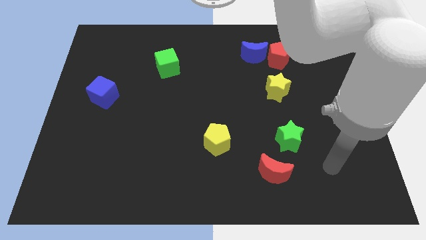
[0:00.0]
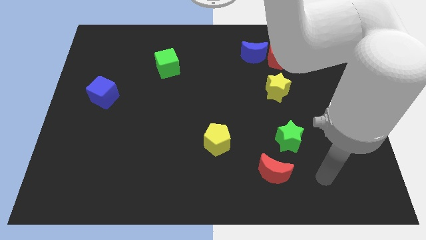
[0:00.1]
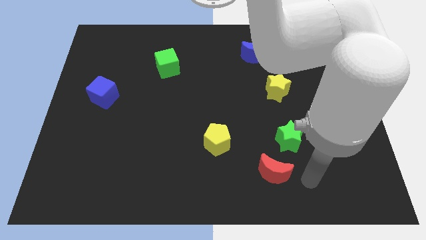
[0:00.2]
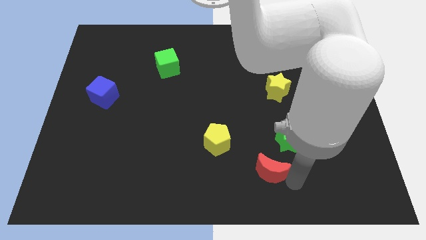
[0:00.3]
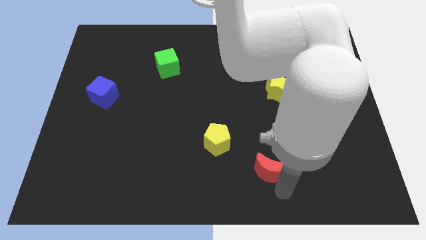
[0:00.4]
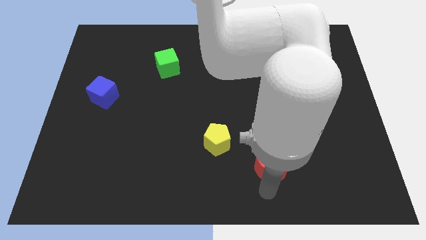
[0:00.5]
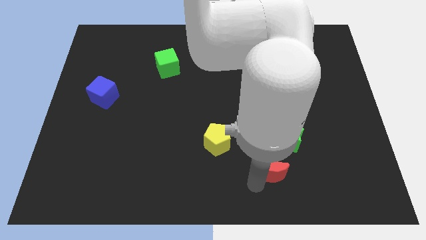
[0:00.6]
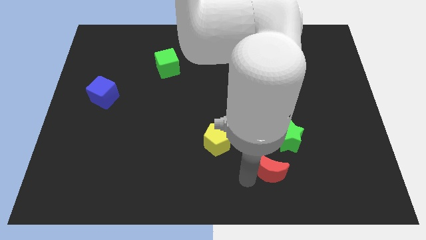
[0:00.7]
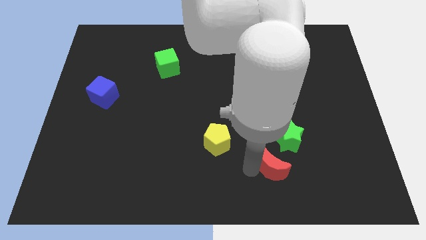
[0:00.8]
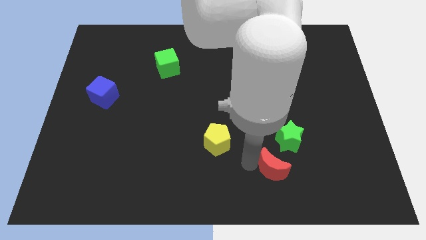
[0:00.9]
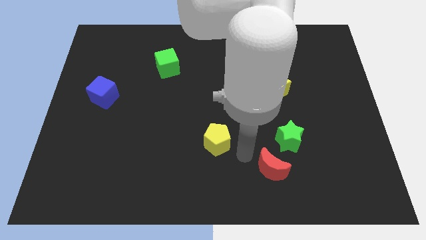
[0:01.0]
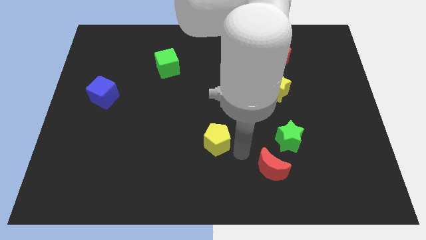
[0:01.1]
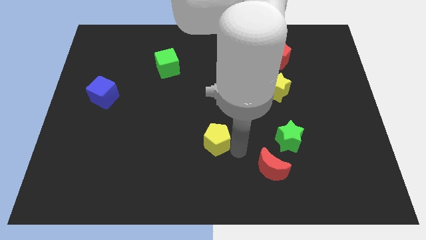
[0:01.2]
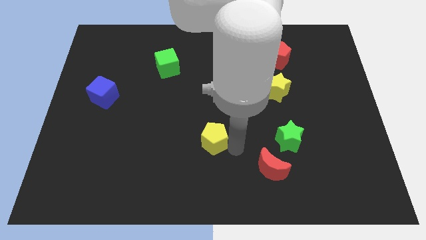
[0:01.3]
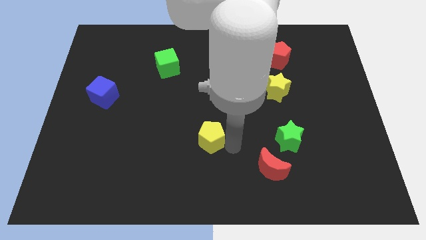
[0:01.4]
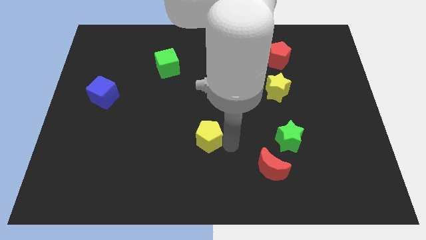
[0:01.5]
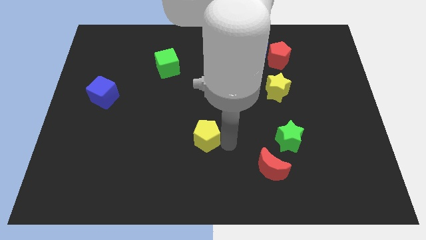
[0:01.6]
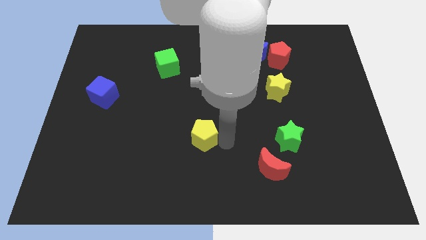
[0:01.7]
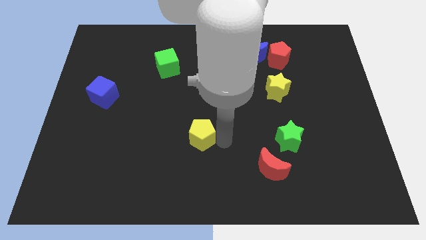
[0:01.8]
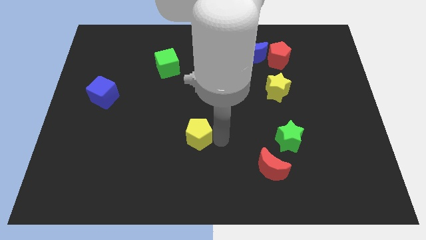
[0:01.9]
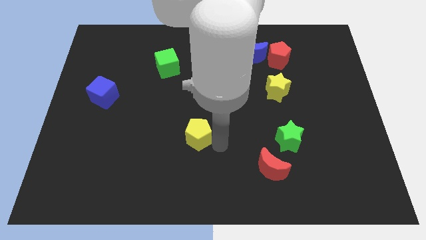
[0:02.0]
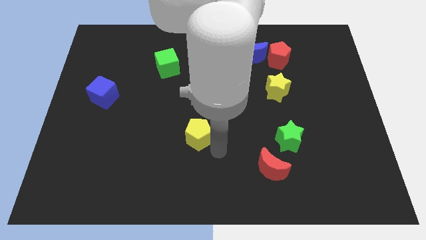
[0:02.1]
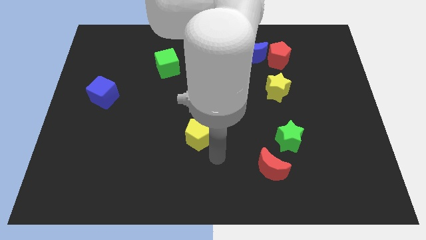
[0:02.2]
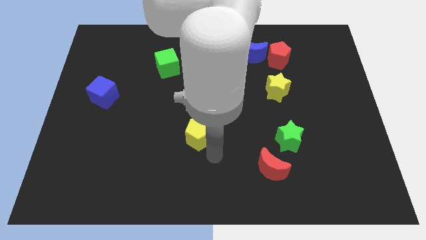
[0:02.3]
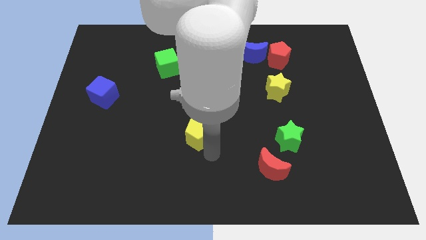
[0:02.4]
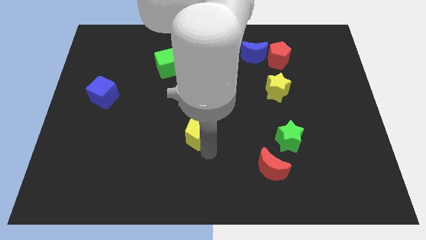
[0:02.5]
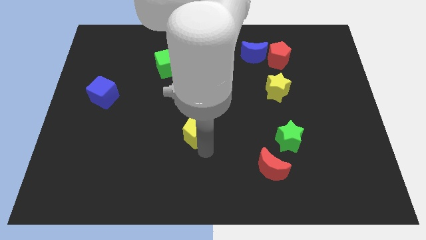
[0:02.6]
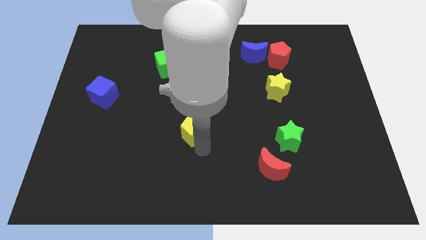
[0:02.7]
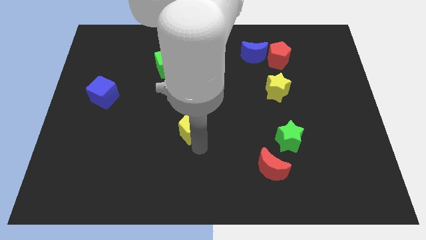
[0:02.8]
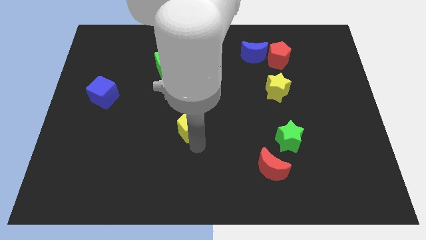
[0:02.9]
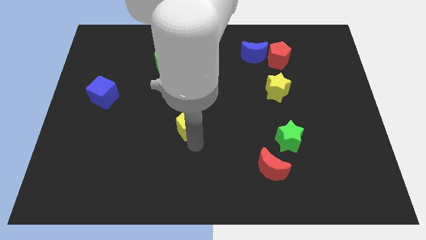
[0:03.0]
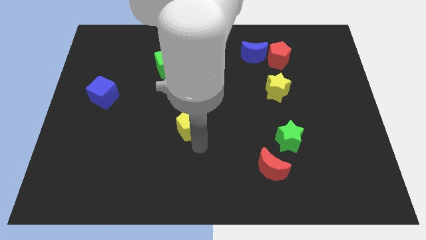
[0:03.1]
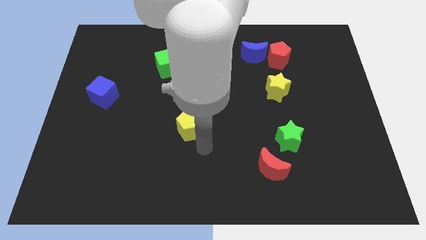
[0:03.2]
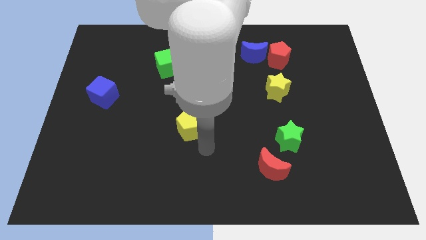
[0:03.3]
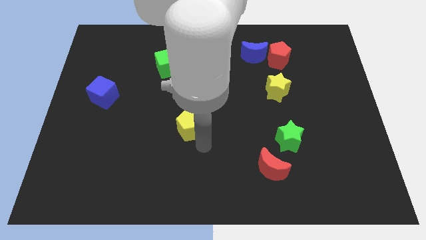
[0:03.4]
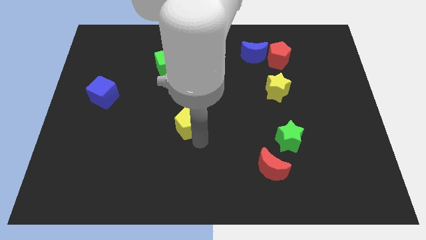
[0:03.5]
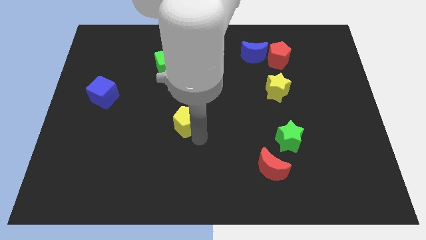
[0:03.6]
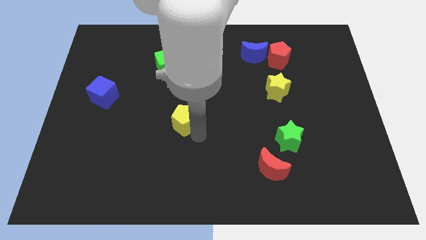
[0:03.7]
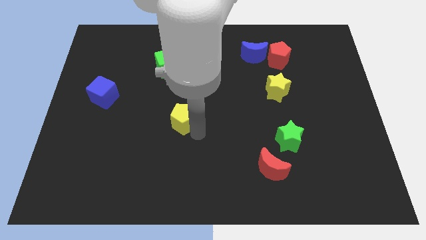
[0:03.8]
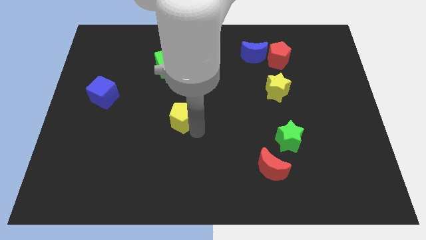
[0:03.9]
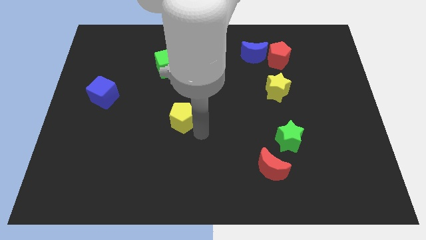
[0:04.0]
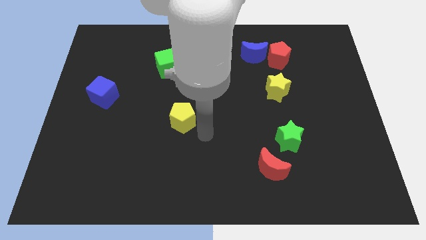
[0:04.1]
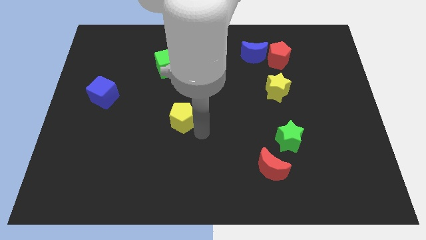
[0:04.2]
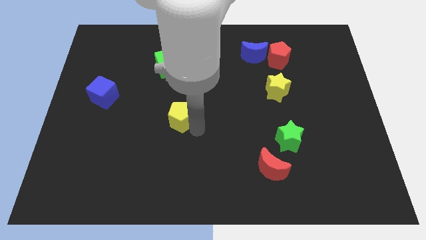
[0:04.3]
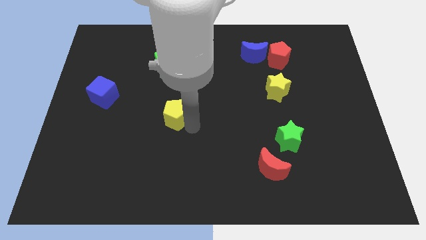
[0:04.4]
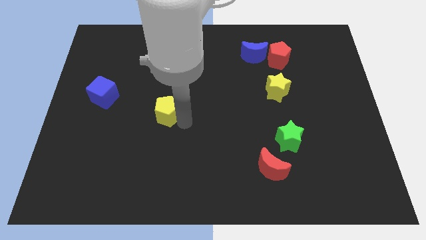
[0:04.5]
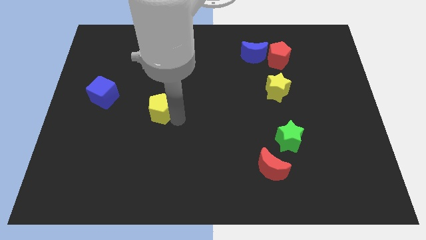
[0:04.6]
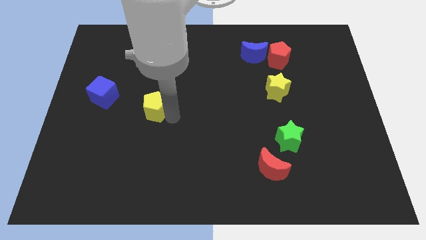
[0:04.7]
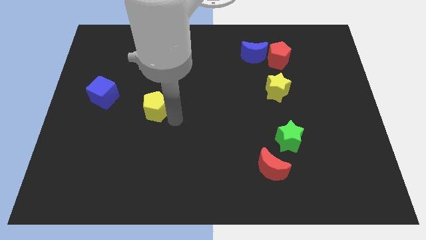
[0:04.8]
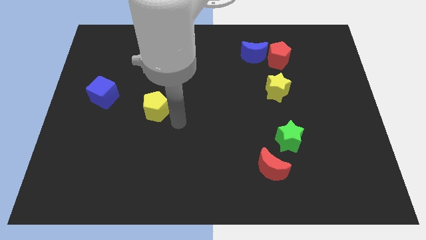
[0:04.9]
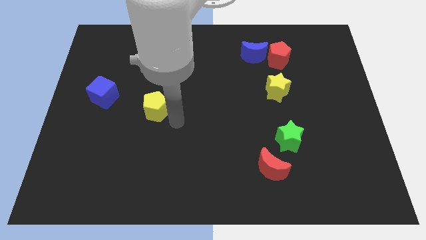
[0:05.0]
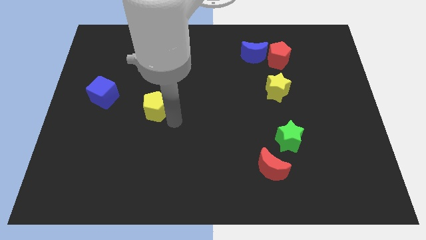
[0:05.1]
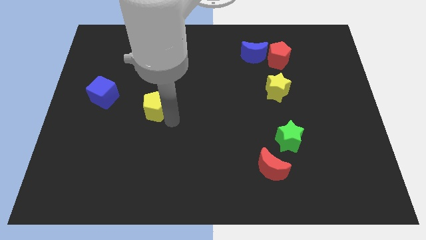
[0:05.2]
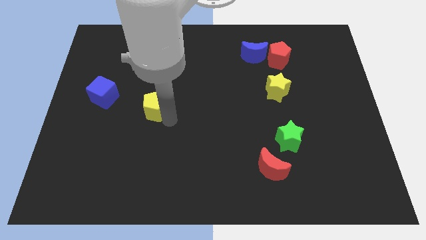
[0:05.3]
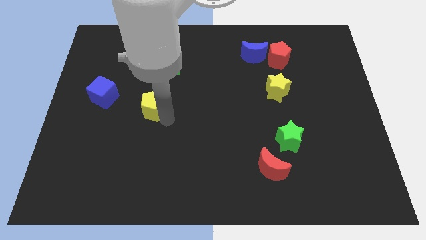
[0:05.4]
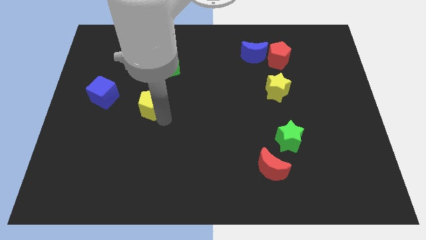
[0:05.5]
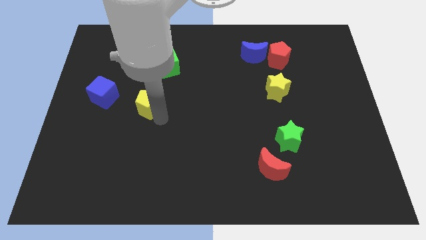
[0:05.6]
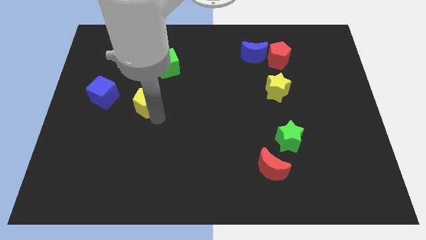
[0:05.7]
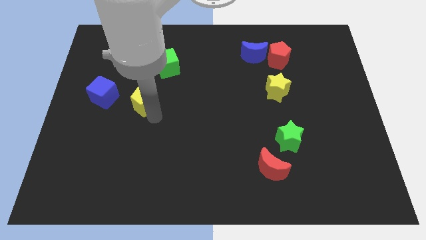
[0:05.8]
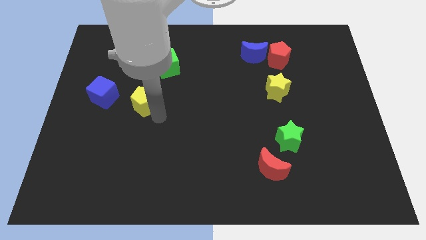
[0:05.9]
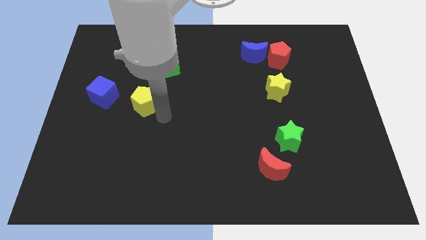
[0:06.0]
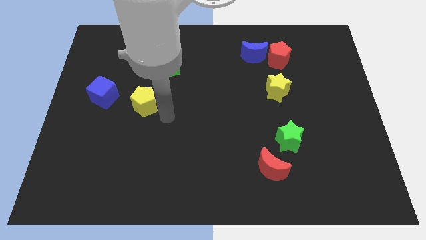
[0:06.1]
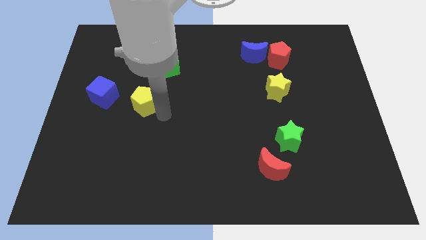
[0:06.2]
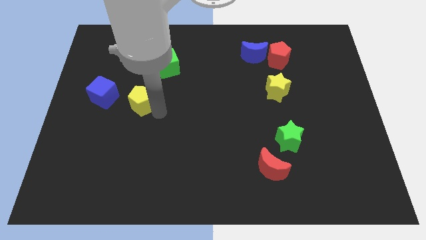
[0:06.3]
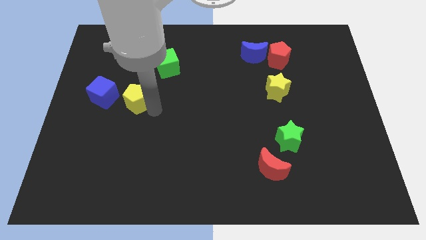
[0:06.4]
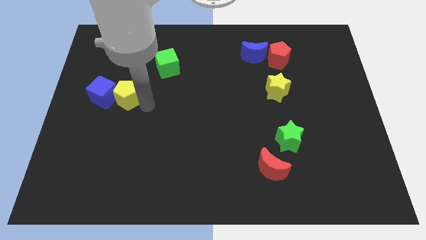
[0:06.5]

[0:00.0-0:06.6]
push the yellow pentagon to the blue cube

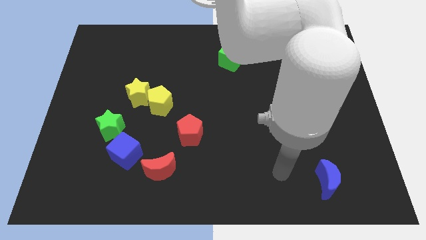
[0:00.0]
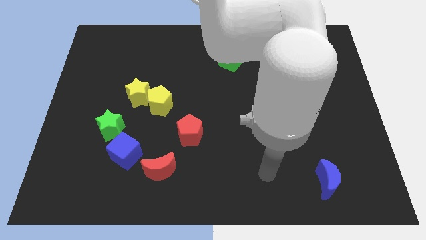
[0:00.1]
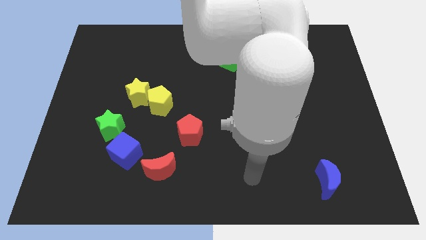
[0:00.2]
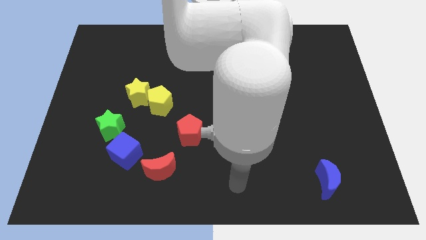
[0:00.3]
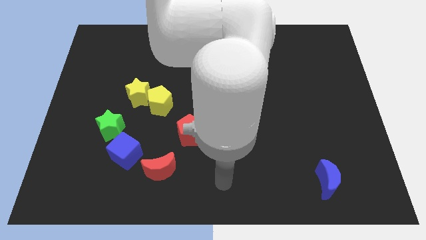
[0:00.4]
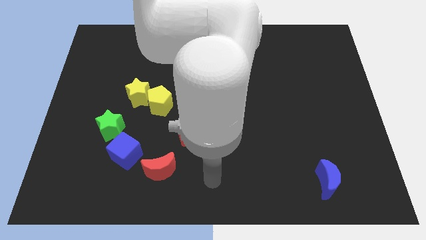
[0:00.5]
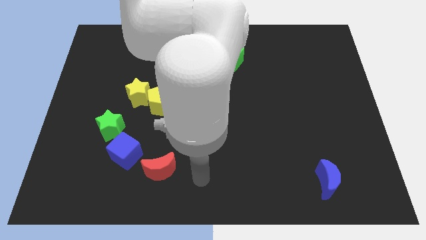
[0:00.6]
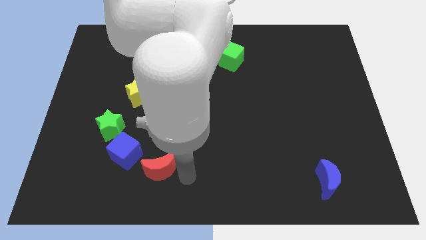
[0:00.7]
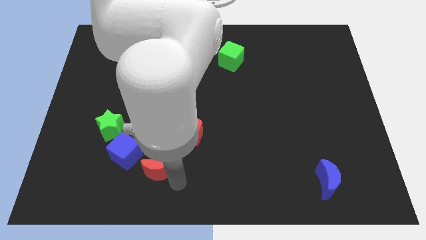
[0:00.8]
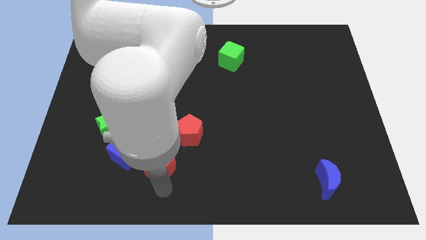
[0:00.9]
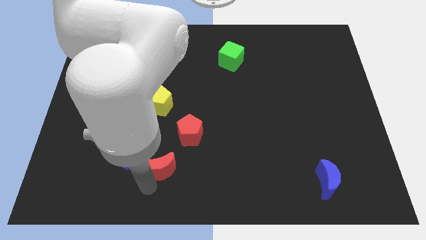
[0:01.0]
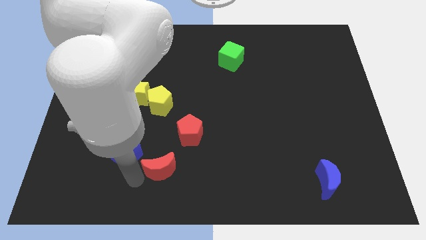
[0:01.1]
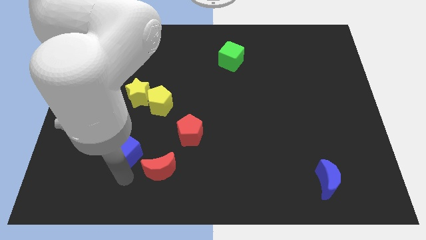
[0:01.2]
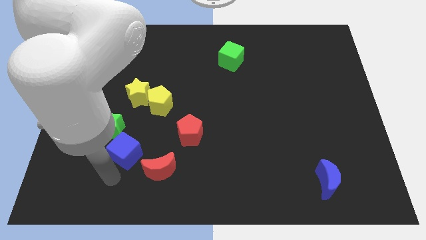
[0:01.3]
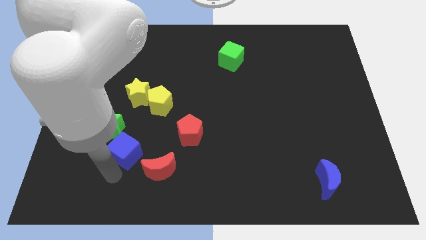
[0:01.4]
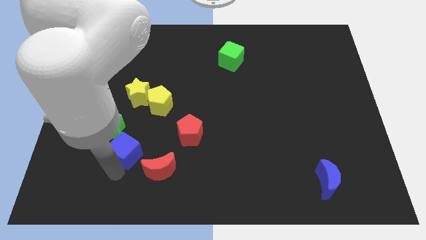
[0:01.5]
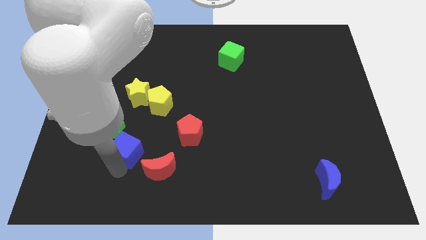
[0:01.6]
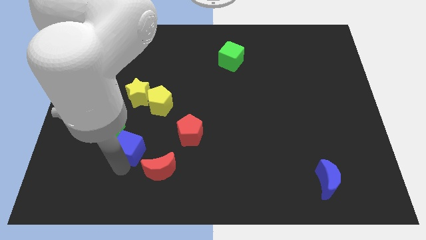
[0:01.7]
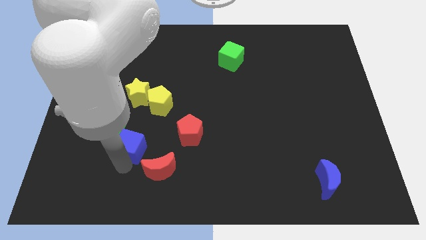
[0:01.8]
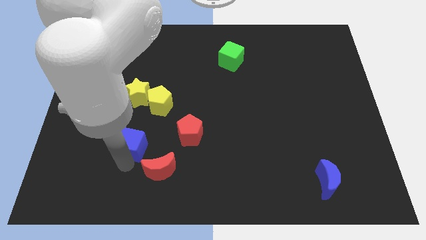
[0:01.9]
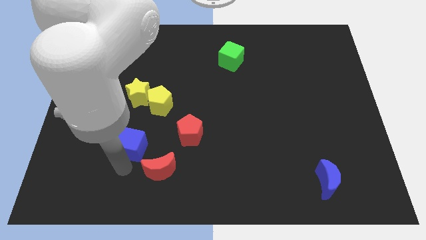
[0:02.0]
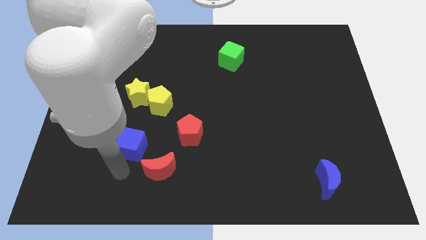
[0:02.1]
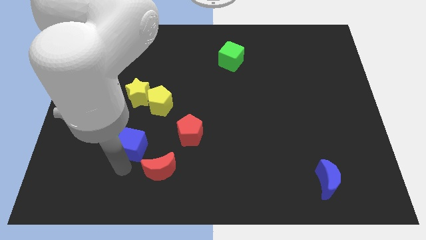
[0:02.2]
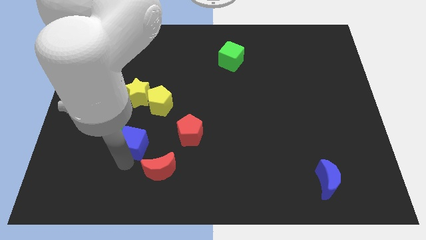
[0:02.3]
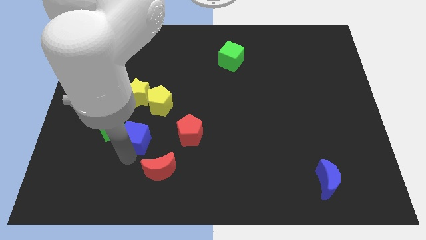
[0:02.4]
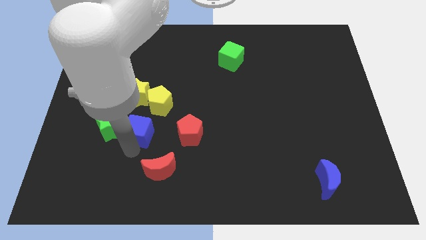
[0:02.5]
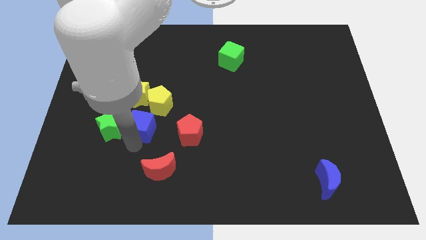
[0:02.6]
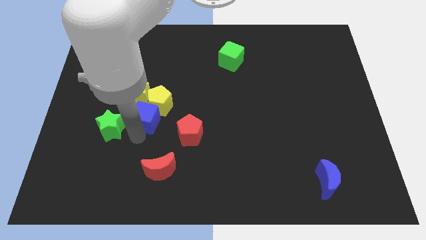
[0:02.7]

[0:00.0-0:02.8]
push the blue cube next to the yellow pentagon
